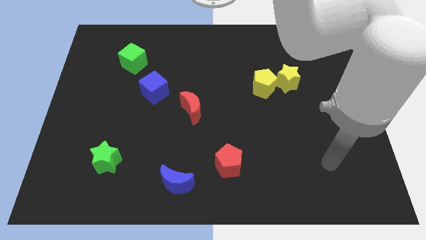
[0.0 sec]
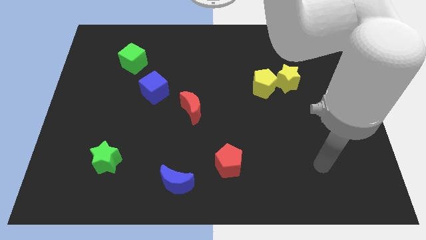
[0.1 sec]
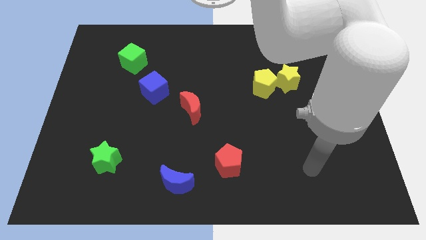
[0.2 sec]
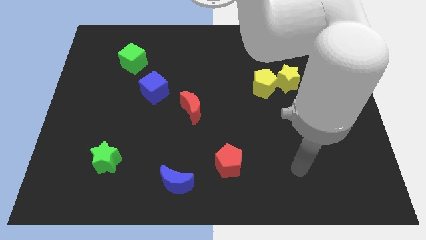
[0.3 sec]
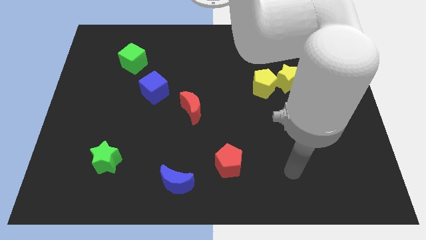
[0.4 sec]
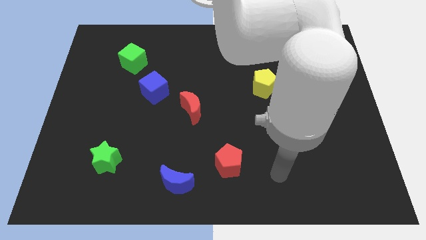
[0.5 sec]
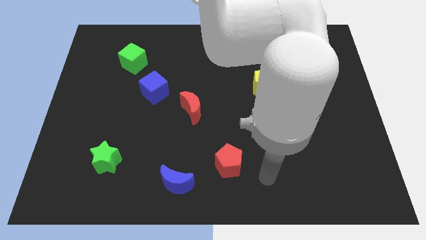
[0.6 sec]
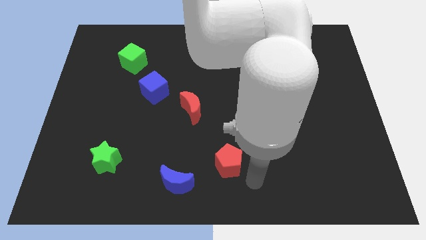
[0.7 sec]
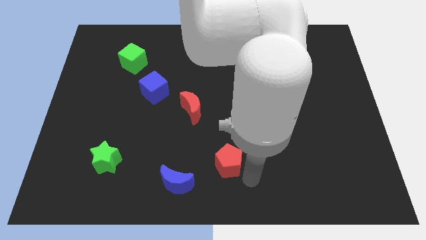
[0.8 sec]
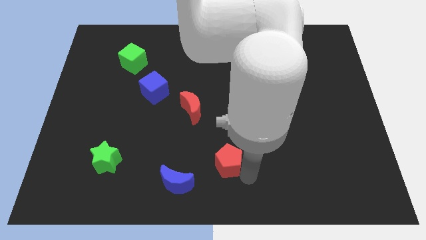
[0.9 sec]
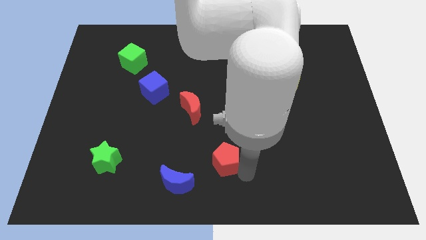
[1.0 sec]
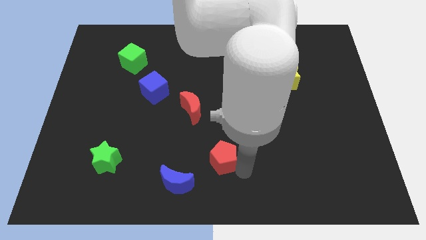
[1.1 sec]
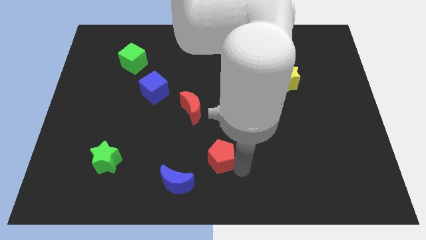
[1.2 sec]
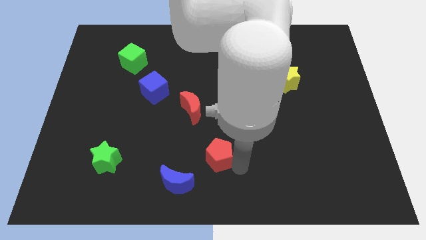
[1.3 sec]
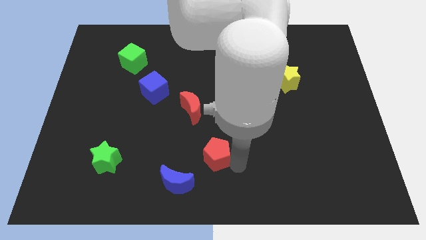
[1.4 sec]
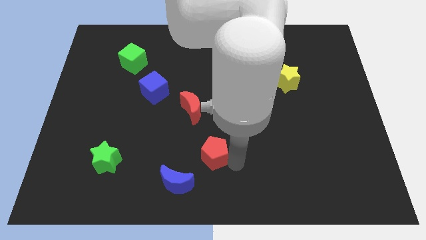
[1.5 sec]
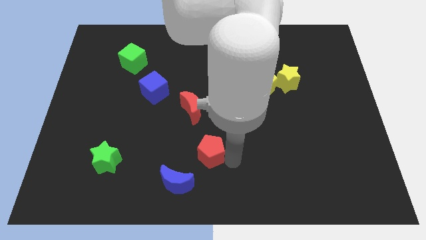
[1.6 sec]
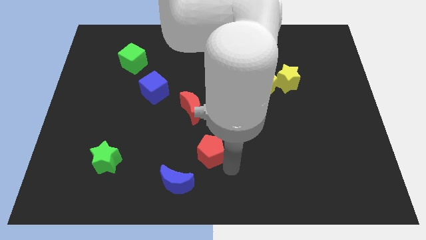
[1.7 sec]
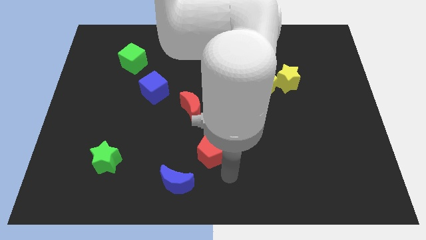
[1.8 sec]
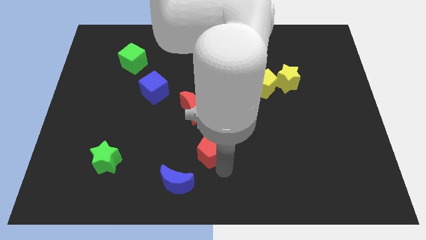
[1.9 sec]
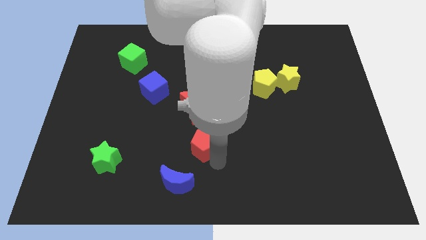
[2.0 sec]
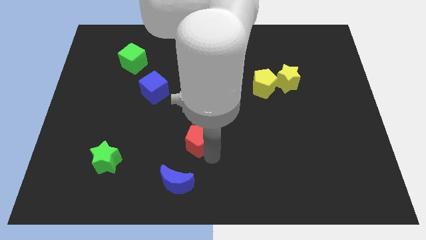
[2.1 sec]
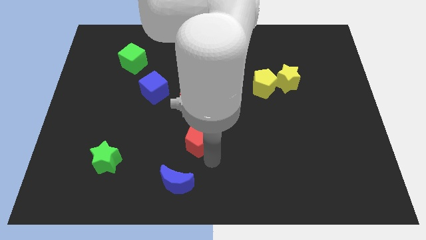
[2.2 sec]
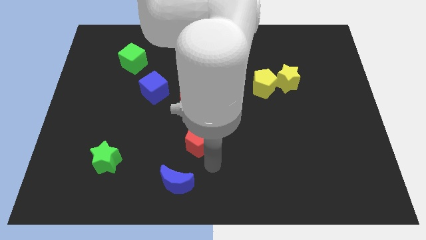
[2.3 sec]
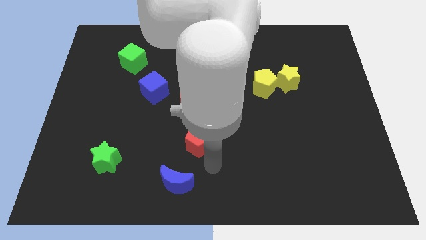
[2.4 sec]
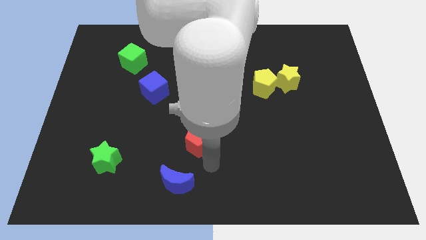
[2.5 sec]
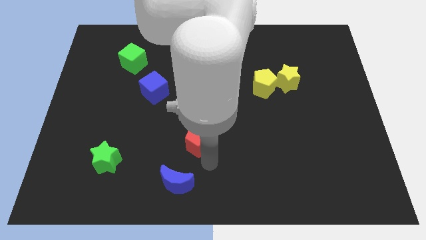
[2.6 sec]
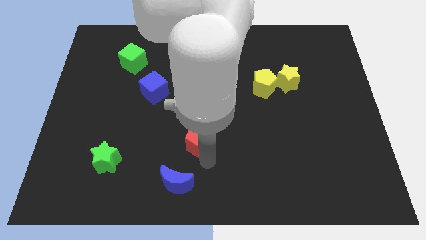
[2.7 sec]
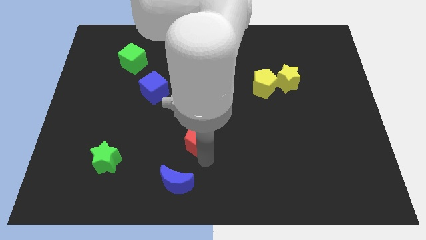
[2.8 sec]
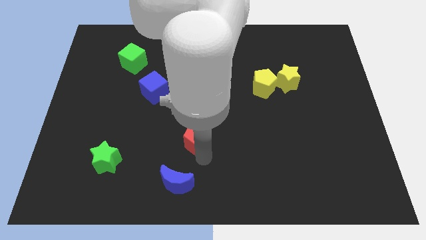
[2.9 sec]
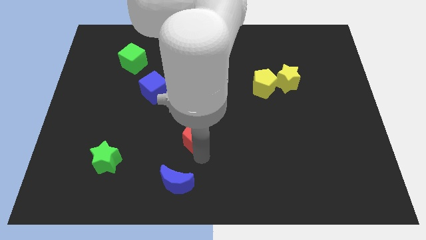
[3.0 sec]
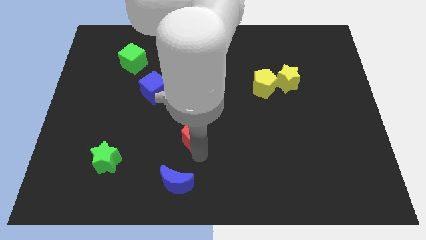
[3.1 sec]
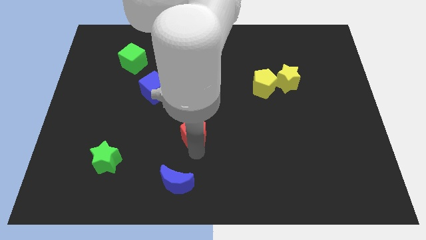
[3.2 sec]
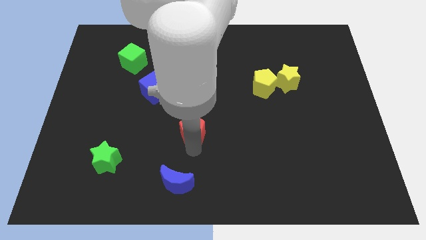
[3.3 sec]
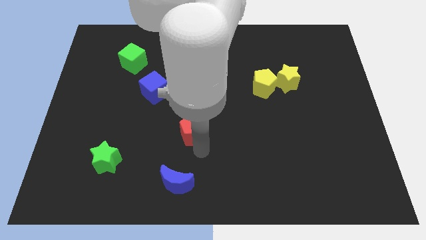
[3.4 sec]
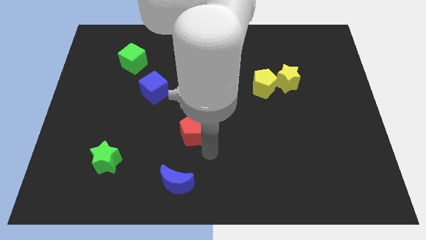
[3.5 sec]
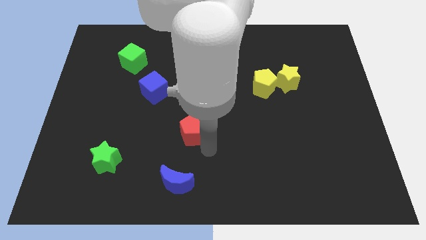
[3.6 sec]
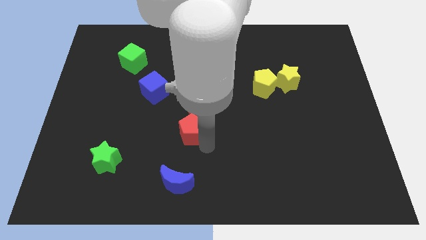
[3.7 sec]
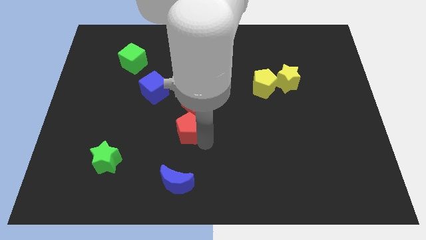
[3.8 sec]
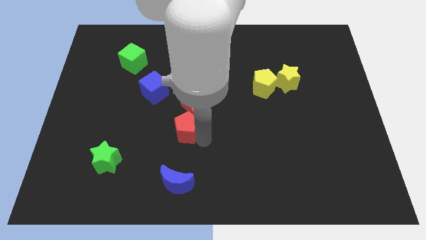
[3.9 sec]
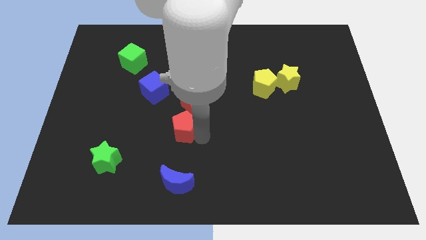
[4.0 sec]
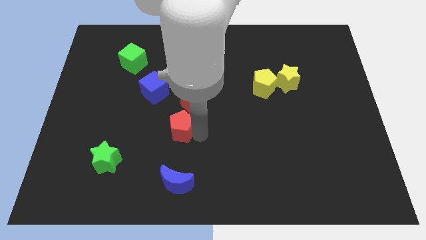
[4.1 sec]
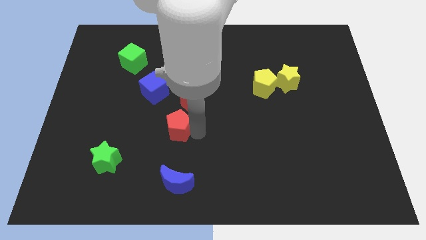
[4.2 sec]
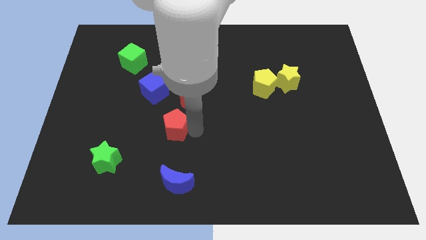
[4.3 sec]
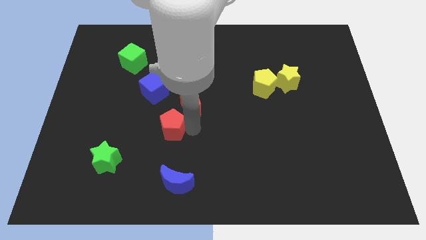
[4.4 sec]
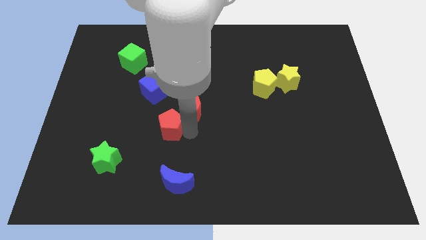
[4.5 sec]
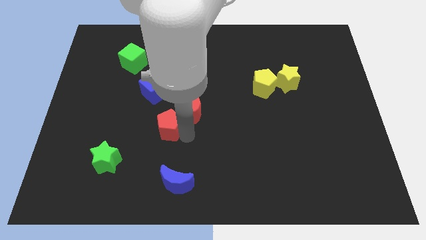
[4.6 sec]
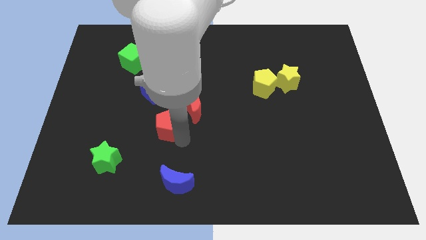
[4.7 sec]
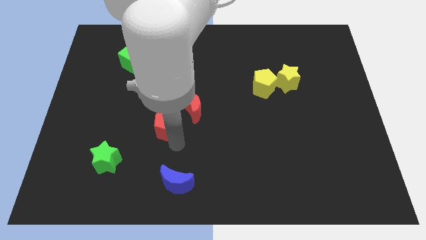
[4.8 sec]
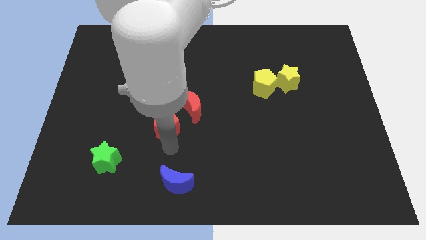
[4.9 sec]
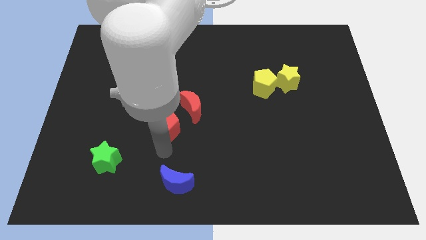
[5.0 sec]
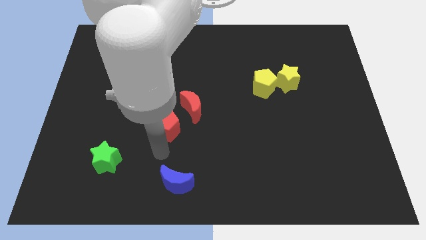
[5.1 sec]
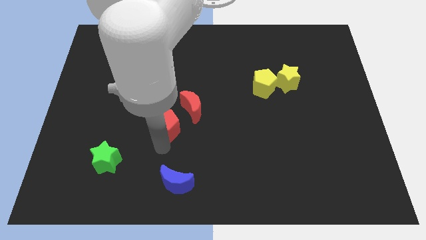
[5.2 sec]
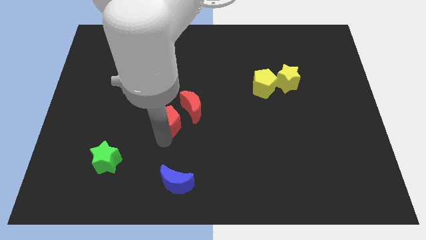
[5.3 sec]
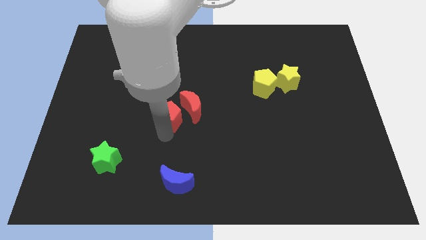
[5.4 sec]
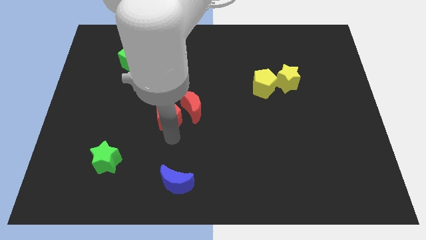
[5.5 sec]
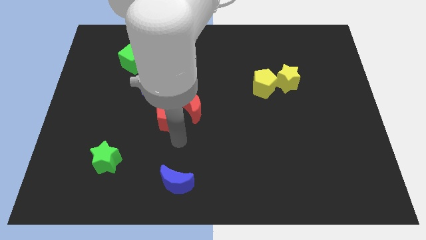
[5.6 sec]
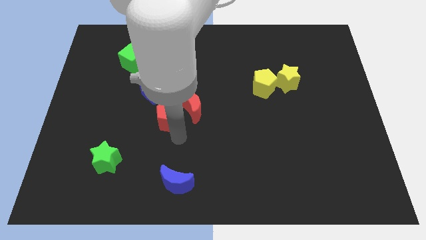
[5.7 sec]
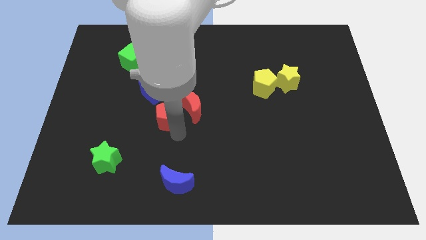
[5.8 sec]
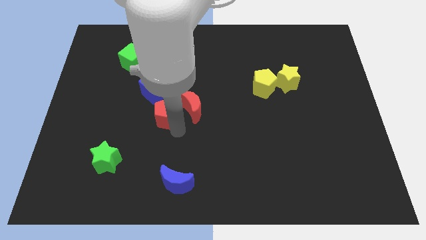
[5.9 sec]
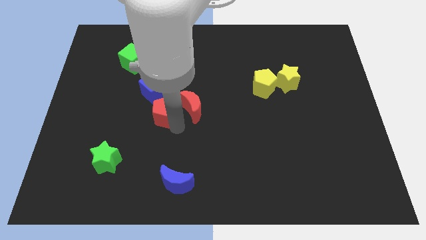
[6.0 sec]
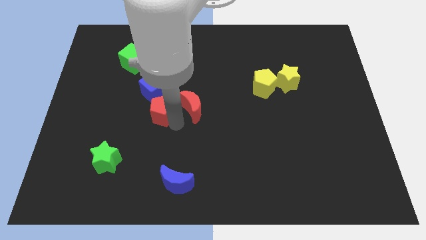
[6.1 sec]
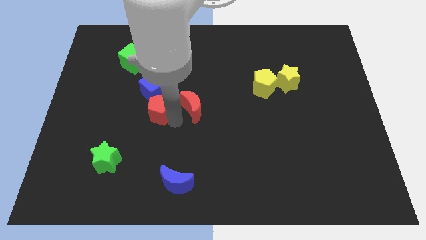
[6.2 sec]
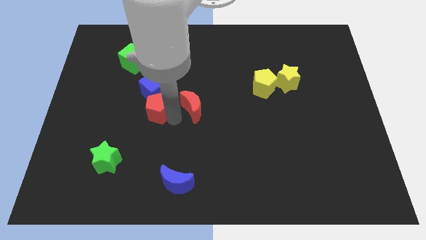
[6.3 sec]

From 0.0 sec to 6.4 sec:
push the red pentagon to the blue cube
